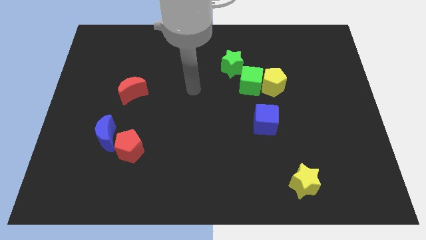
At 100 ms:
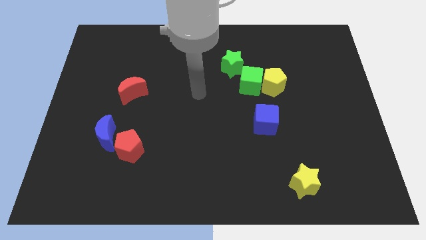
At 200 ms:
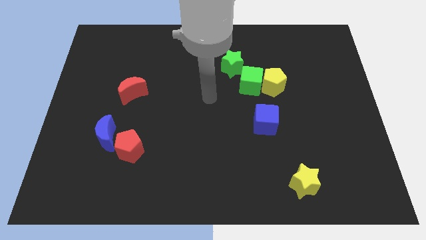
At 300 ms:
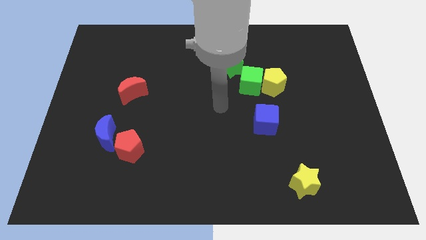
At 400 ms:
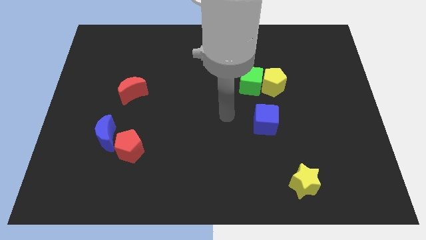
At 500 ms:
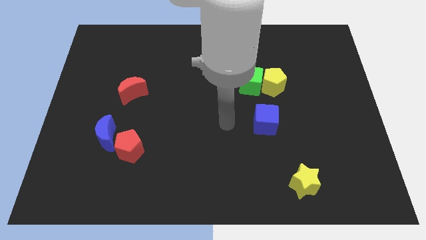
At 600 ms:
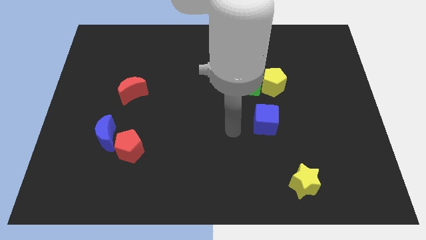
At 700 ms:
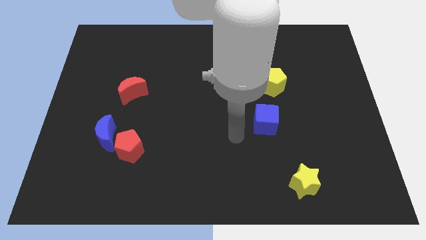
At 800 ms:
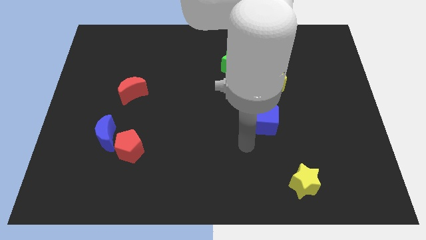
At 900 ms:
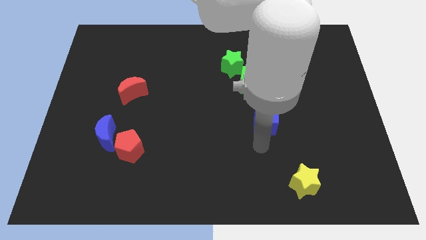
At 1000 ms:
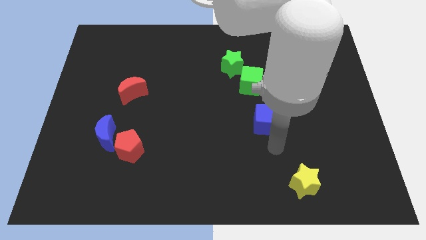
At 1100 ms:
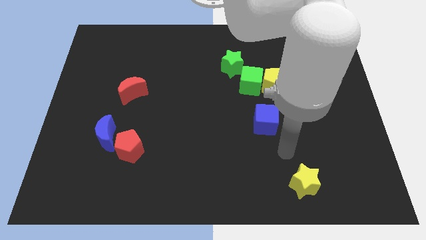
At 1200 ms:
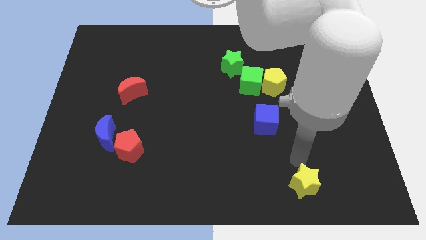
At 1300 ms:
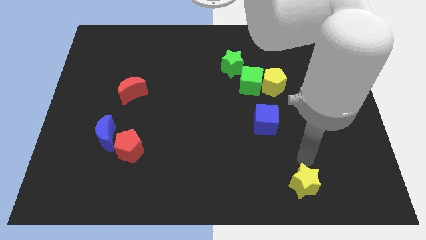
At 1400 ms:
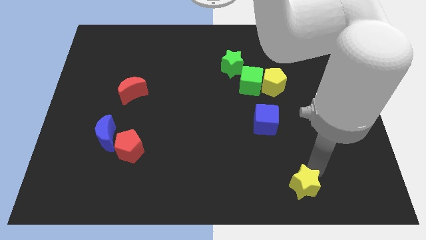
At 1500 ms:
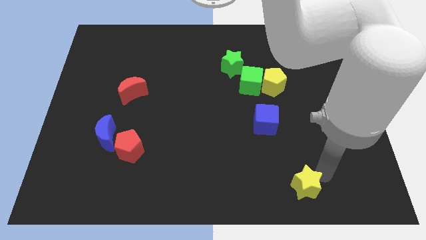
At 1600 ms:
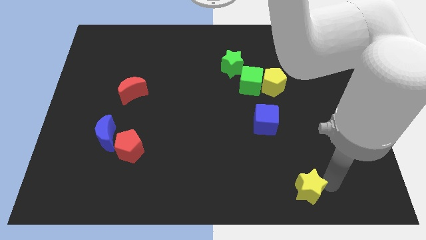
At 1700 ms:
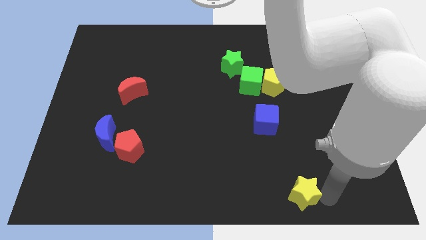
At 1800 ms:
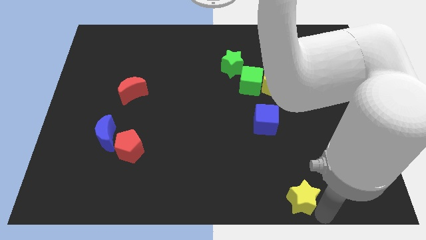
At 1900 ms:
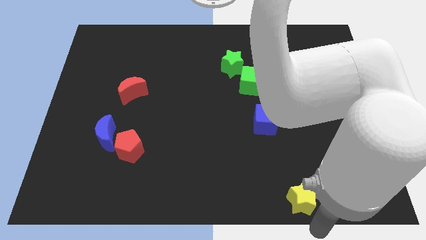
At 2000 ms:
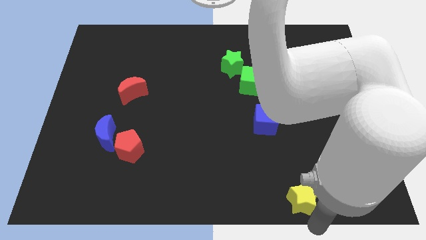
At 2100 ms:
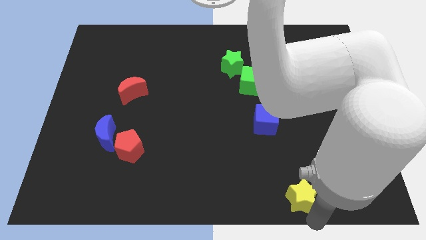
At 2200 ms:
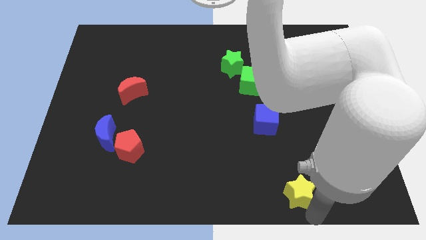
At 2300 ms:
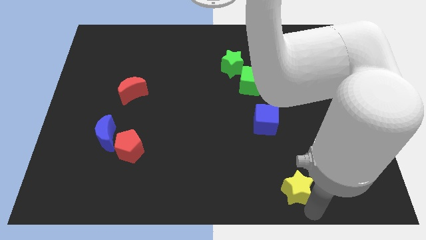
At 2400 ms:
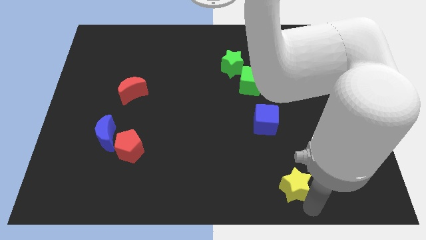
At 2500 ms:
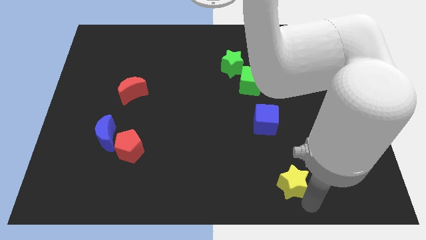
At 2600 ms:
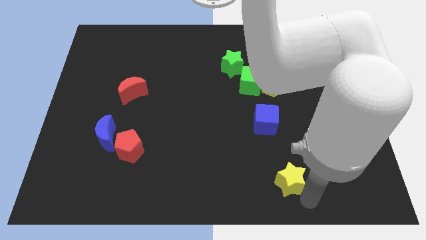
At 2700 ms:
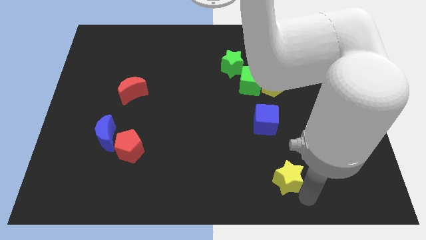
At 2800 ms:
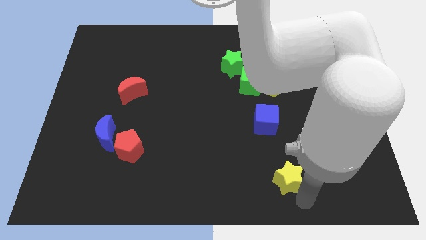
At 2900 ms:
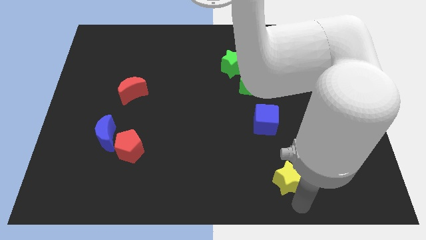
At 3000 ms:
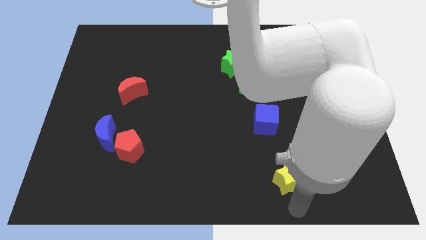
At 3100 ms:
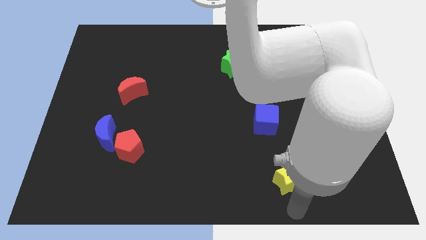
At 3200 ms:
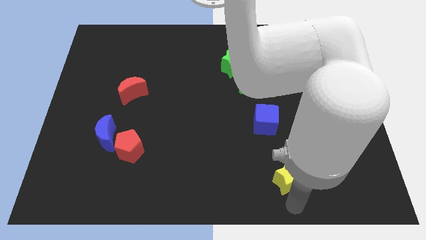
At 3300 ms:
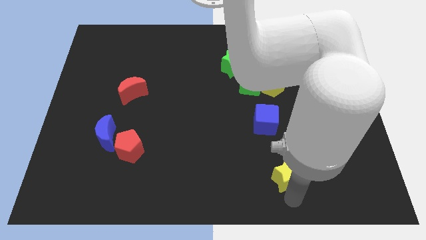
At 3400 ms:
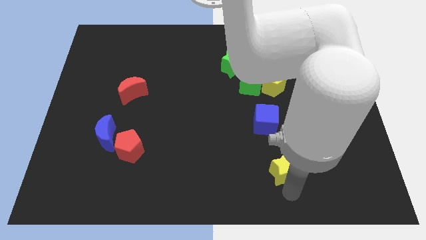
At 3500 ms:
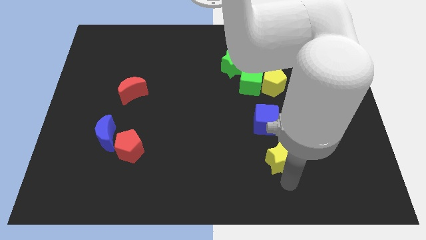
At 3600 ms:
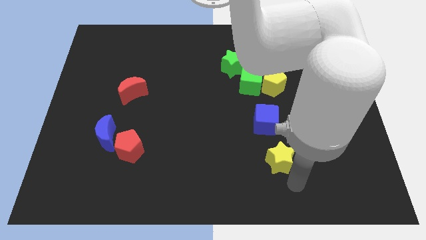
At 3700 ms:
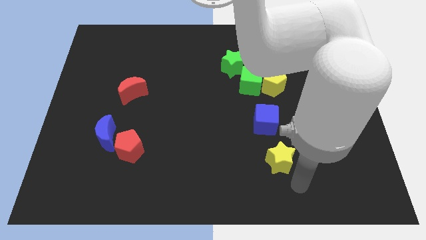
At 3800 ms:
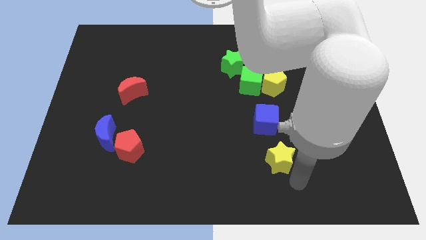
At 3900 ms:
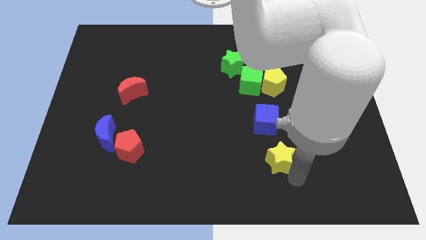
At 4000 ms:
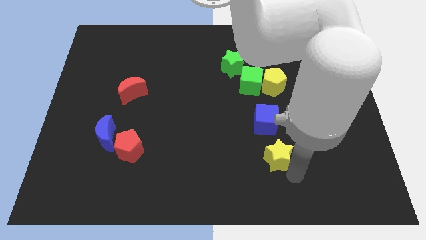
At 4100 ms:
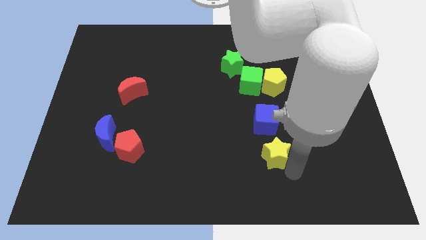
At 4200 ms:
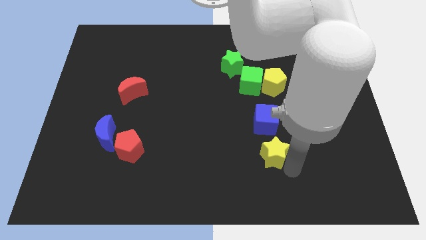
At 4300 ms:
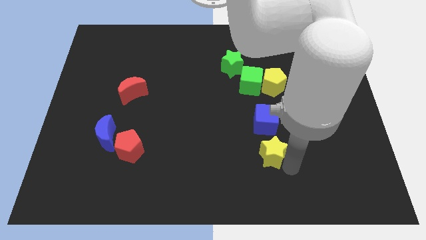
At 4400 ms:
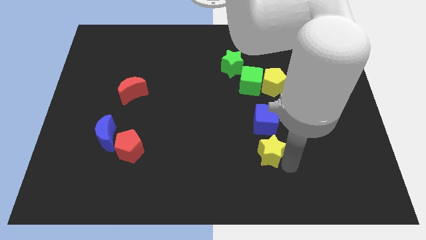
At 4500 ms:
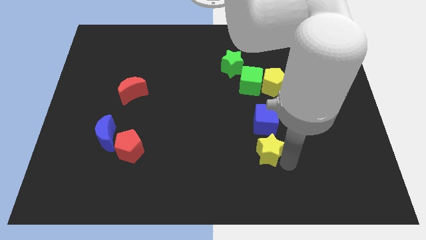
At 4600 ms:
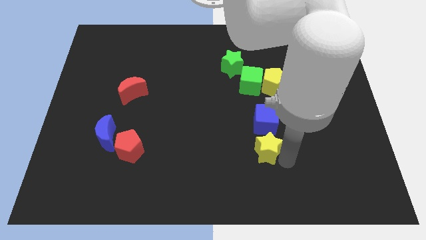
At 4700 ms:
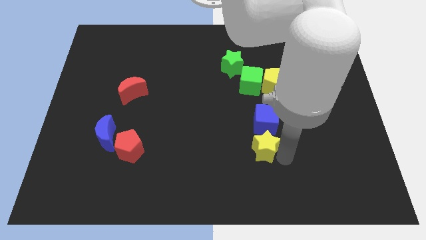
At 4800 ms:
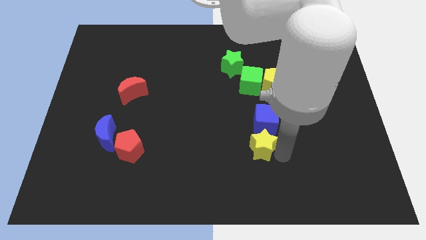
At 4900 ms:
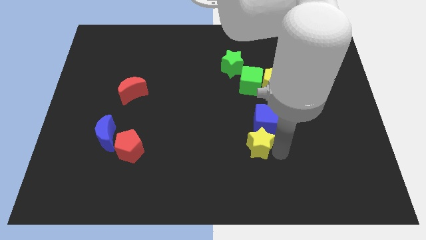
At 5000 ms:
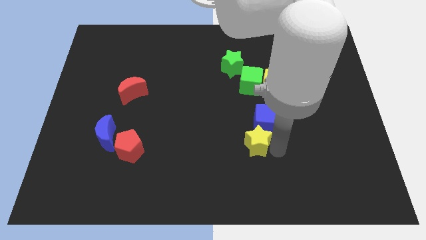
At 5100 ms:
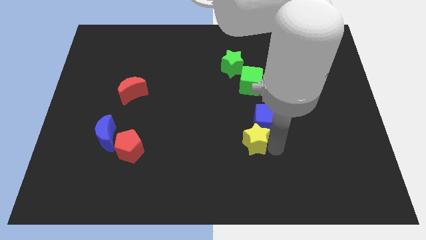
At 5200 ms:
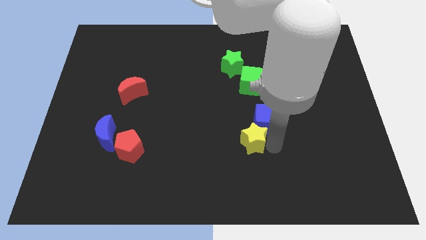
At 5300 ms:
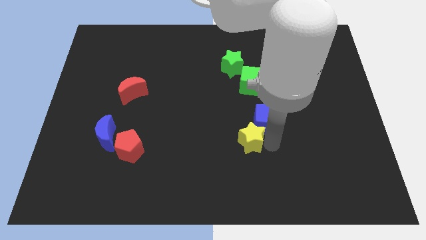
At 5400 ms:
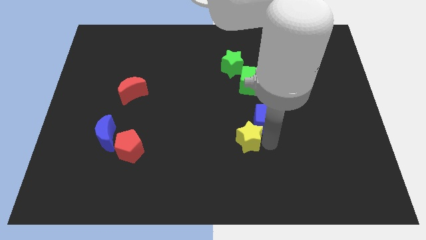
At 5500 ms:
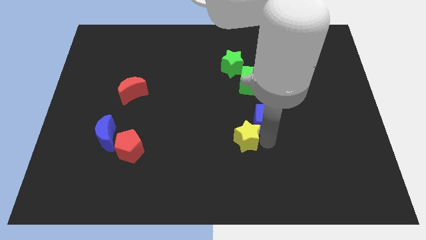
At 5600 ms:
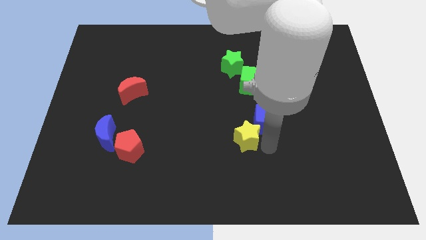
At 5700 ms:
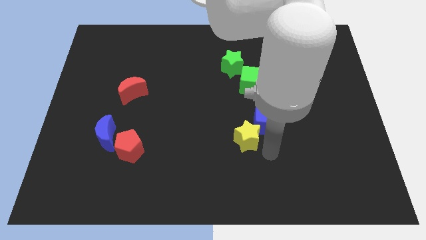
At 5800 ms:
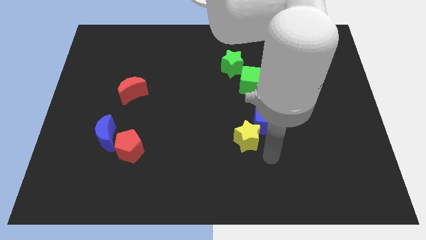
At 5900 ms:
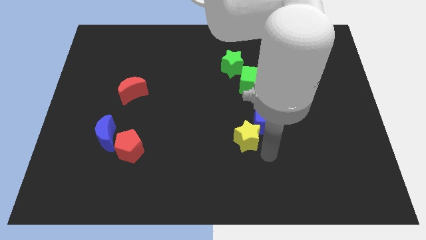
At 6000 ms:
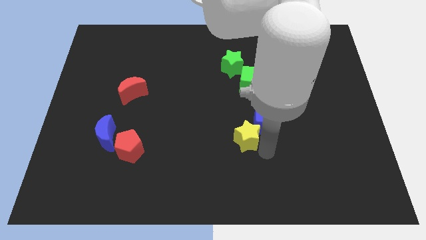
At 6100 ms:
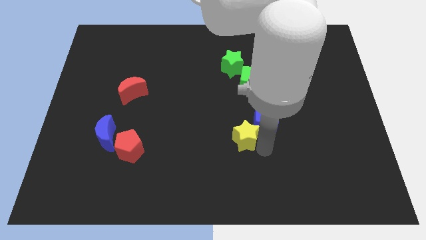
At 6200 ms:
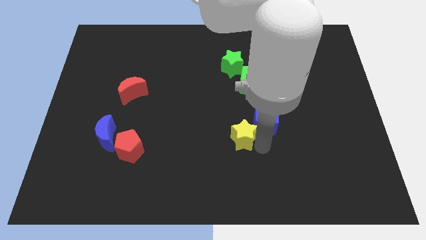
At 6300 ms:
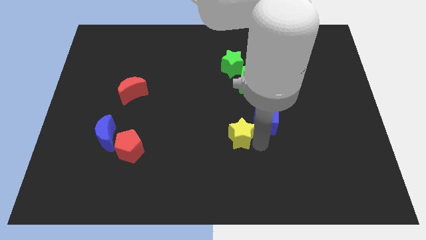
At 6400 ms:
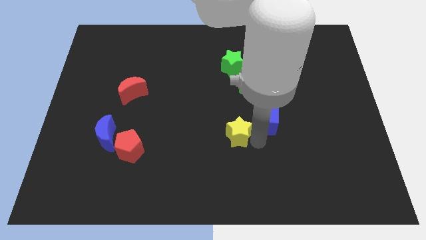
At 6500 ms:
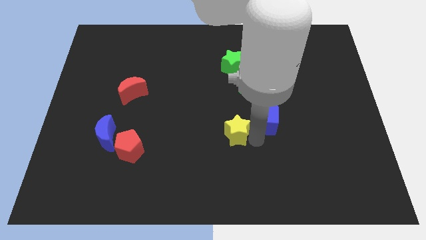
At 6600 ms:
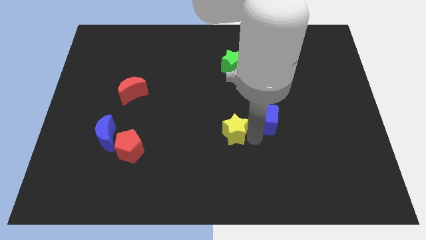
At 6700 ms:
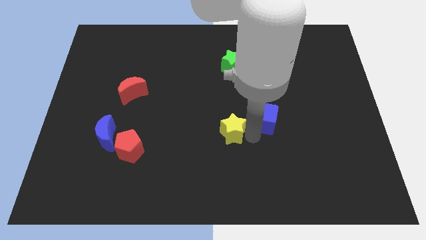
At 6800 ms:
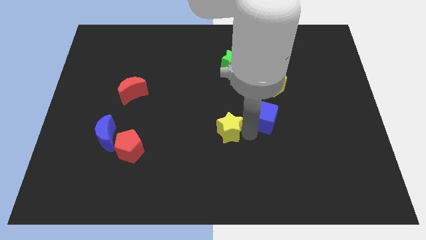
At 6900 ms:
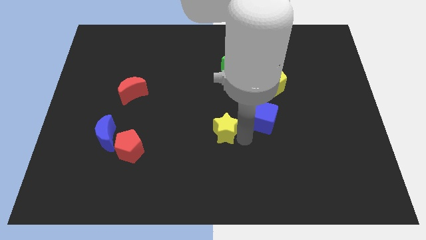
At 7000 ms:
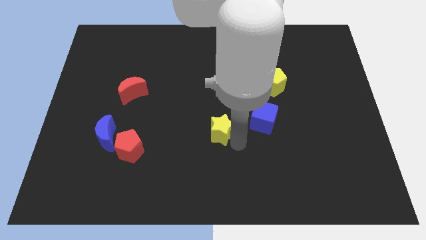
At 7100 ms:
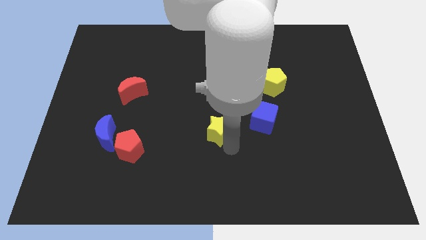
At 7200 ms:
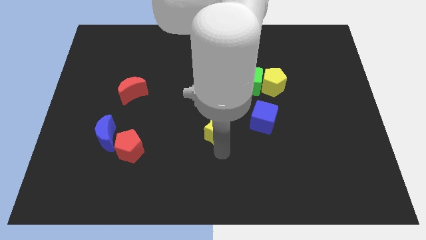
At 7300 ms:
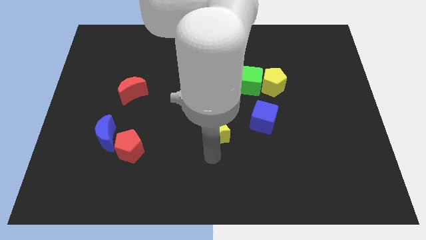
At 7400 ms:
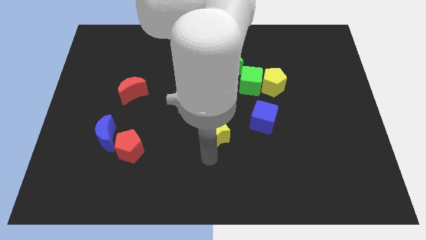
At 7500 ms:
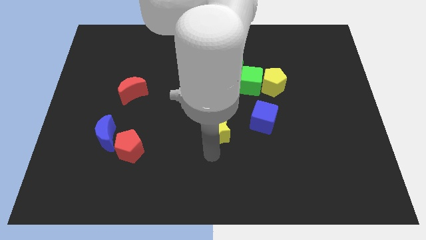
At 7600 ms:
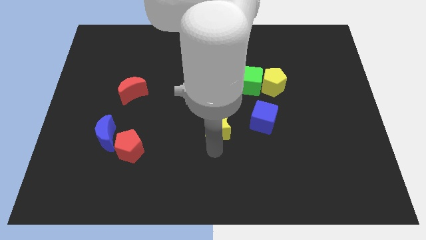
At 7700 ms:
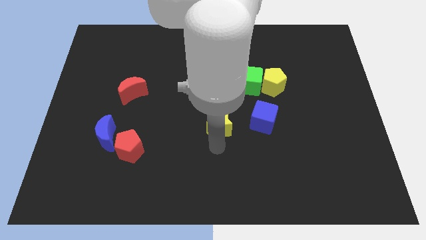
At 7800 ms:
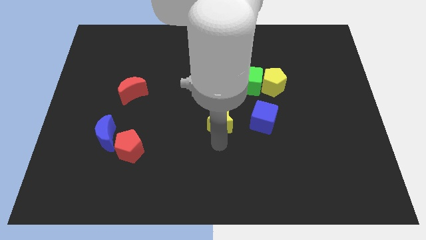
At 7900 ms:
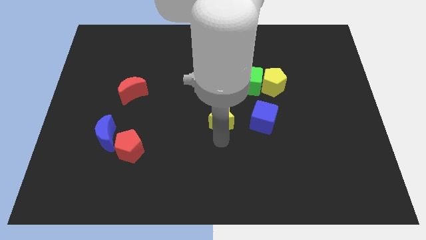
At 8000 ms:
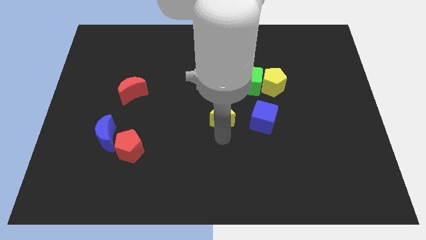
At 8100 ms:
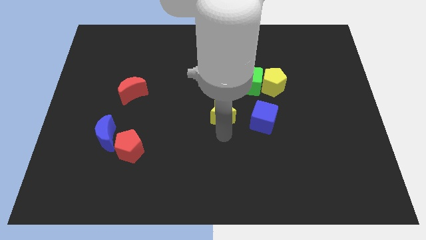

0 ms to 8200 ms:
put the yellow star to the bottom side of the green star
